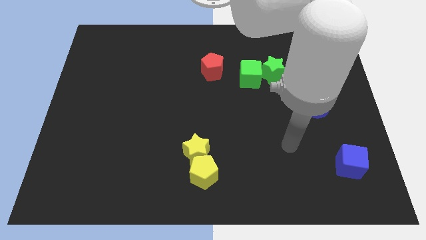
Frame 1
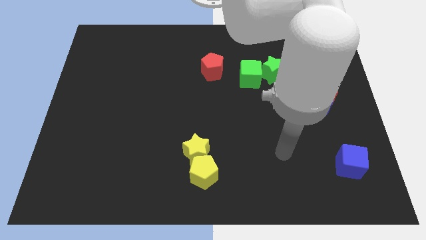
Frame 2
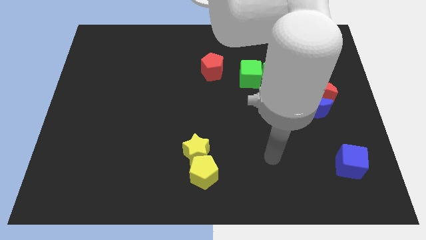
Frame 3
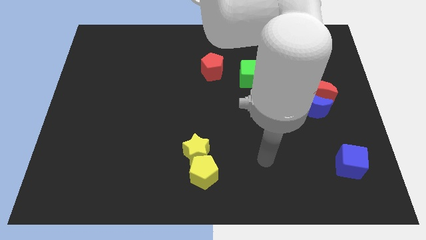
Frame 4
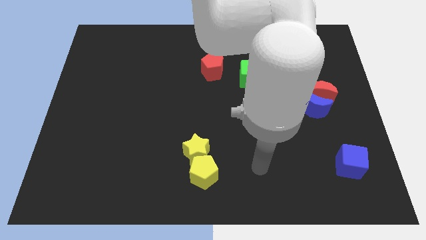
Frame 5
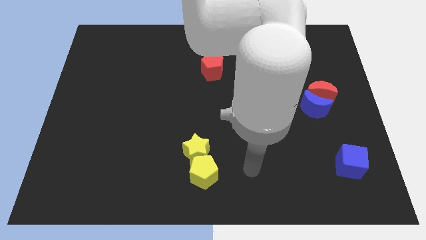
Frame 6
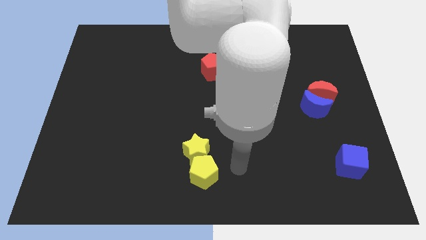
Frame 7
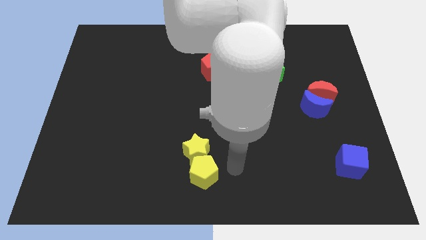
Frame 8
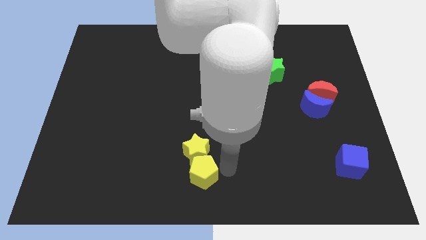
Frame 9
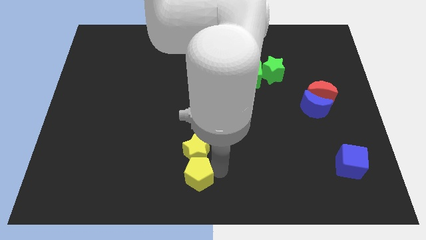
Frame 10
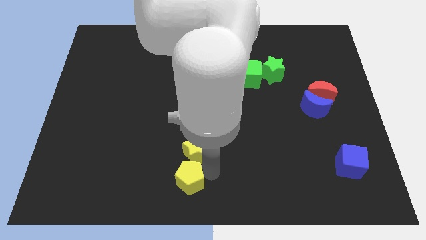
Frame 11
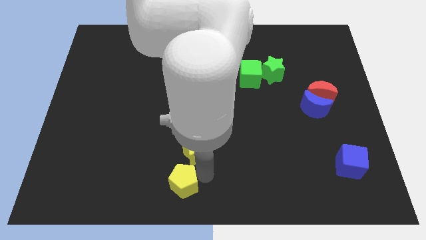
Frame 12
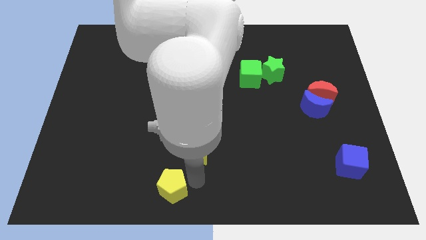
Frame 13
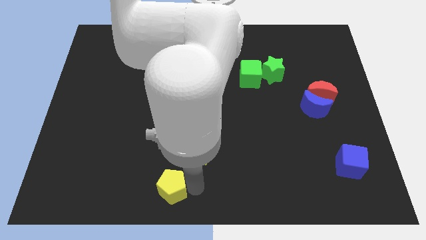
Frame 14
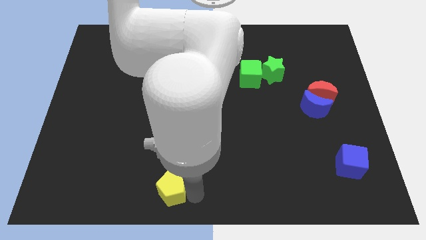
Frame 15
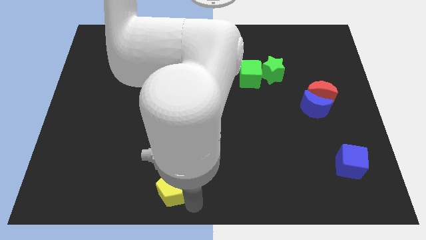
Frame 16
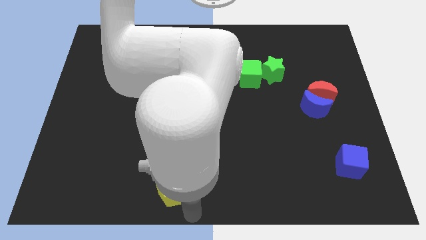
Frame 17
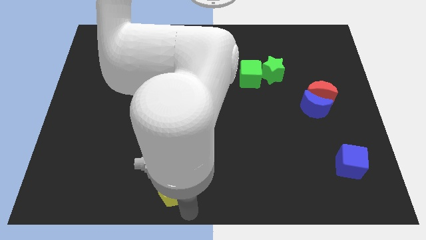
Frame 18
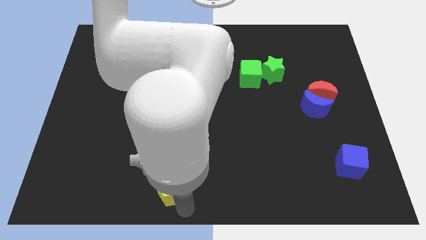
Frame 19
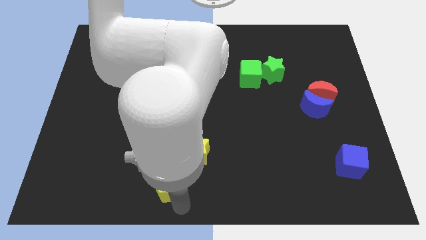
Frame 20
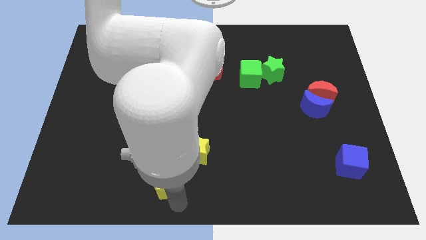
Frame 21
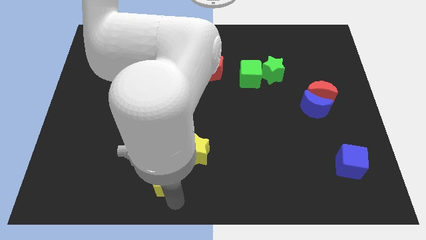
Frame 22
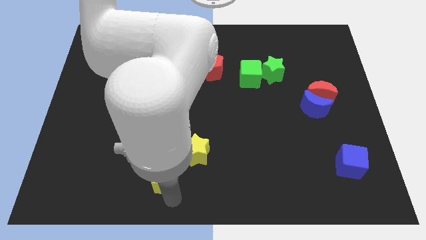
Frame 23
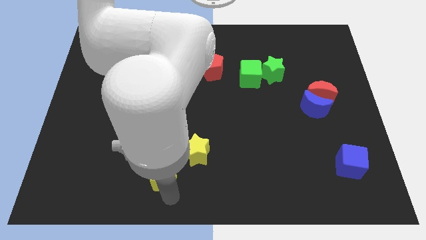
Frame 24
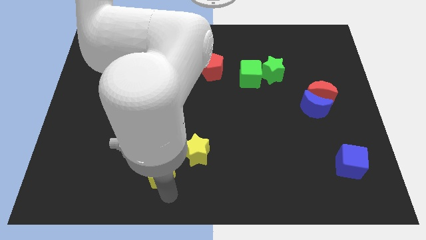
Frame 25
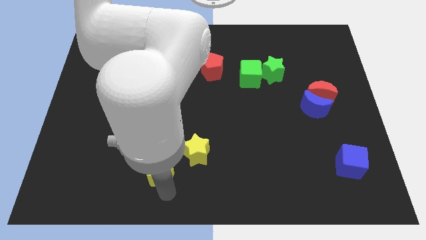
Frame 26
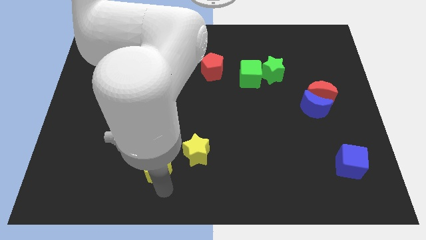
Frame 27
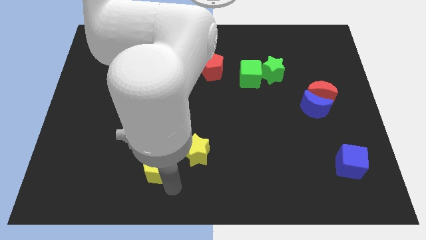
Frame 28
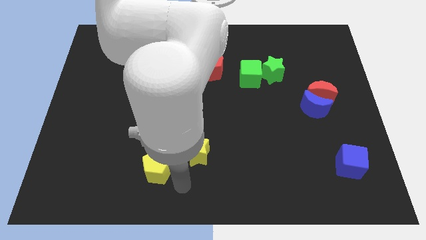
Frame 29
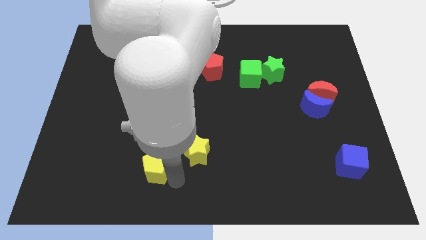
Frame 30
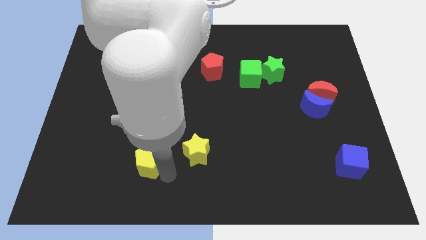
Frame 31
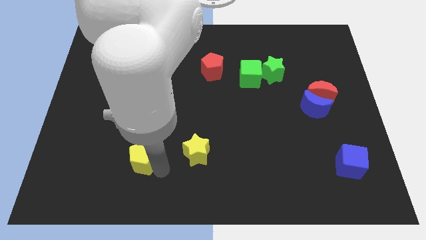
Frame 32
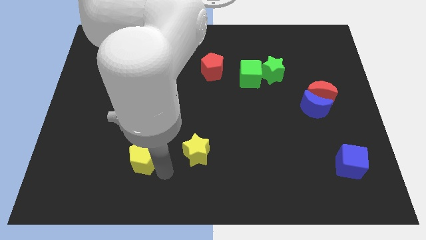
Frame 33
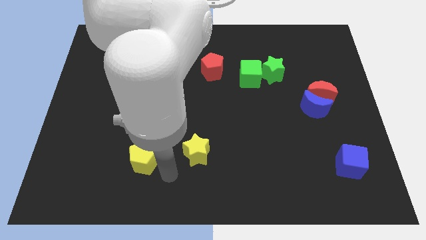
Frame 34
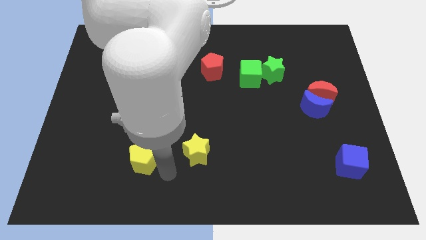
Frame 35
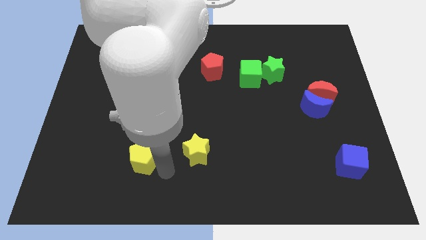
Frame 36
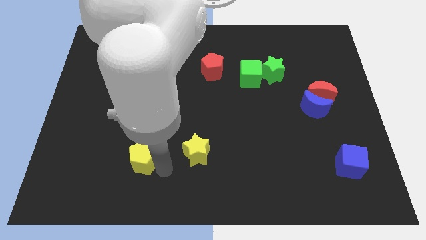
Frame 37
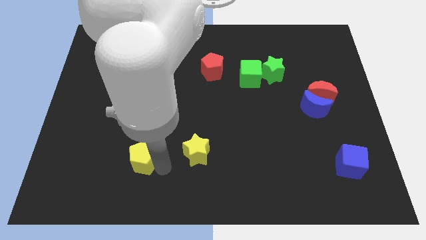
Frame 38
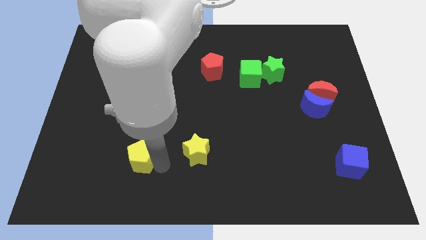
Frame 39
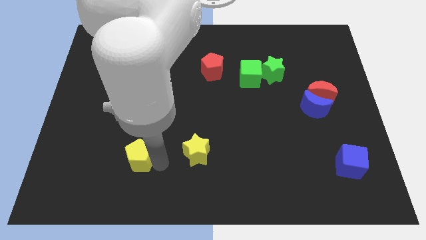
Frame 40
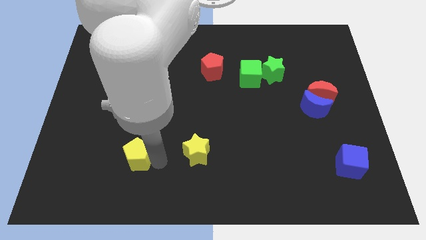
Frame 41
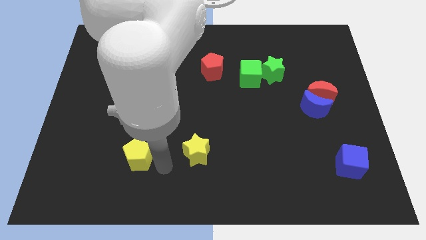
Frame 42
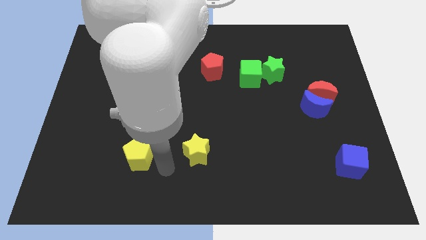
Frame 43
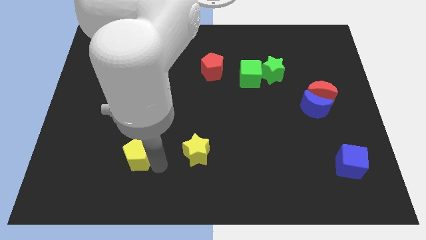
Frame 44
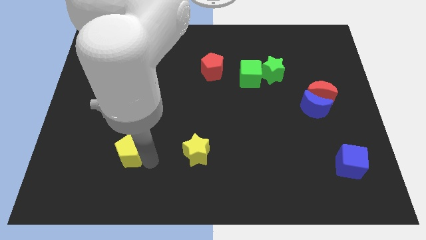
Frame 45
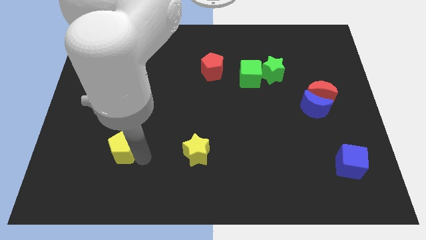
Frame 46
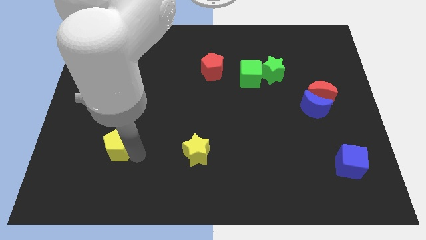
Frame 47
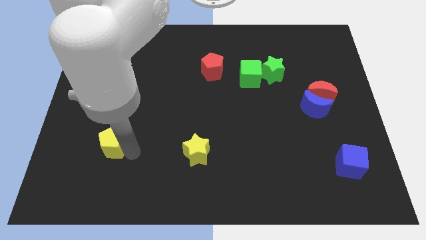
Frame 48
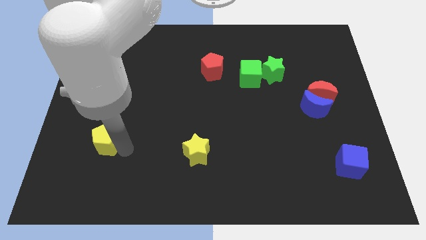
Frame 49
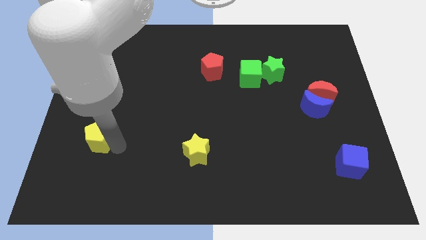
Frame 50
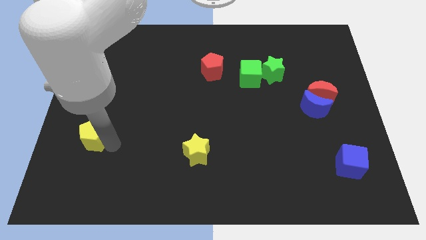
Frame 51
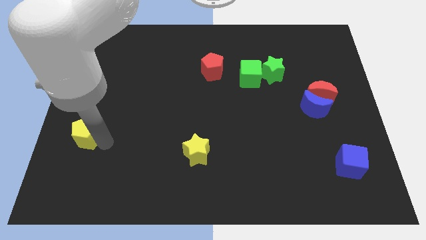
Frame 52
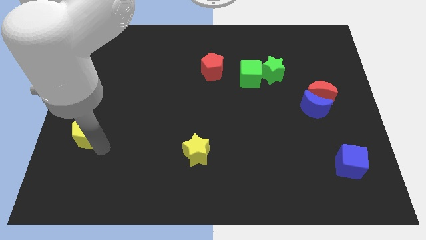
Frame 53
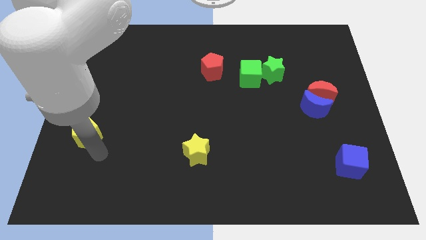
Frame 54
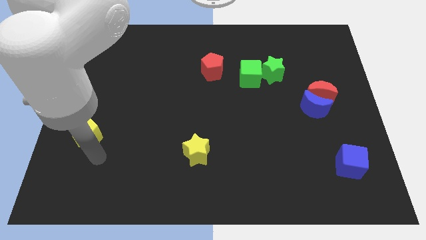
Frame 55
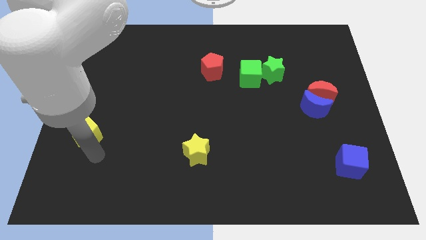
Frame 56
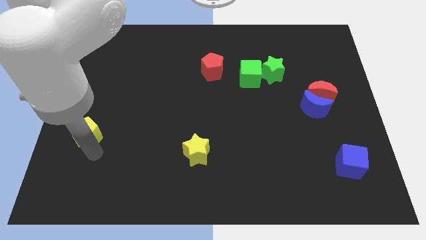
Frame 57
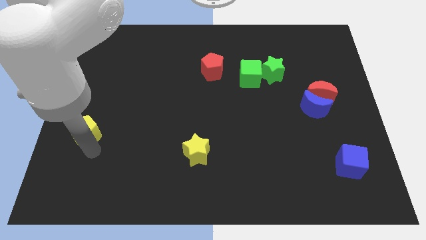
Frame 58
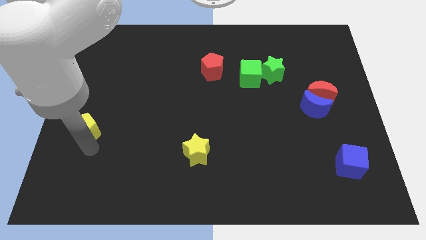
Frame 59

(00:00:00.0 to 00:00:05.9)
put the yellow pentagon to the left side of the board
